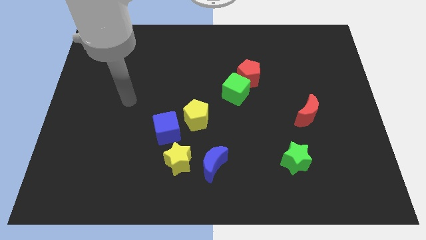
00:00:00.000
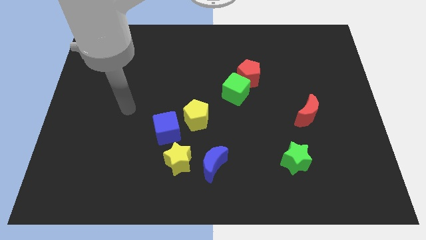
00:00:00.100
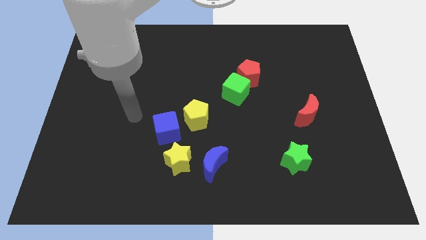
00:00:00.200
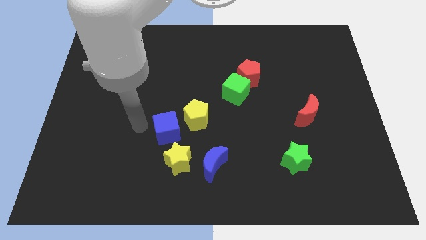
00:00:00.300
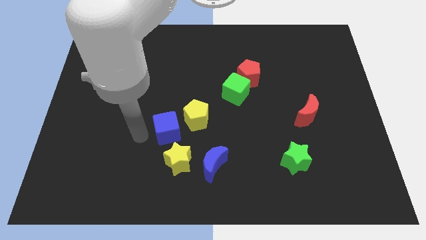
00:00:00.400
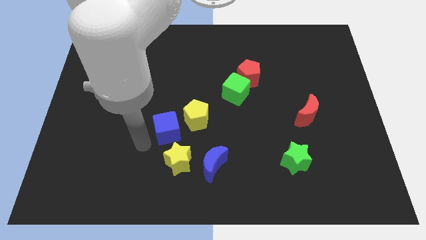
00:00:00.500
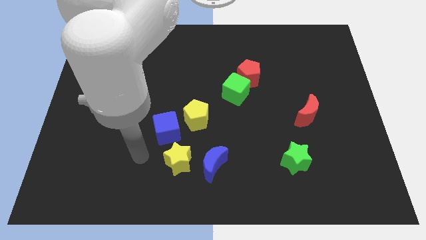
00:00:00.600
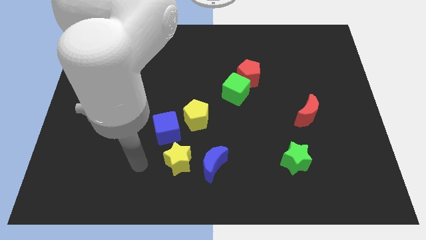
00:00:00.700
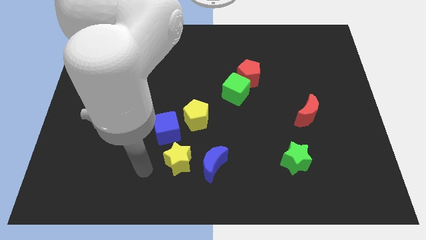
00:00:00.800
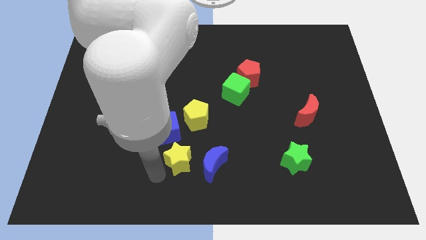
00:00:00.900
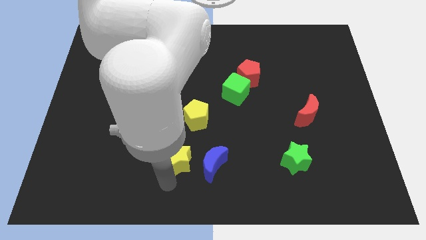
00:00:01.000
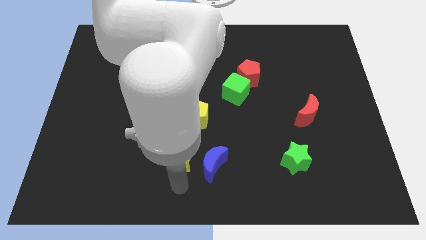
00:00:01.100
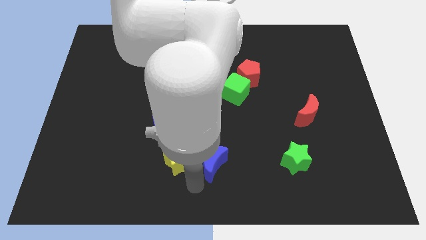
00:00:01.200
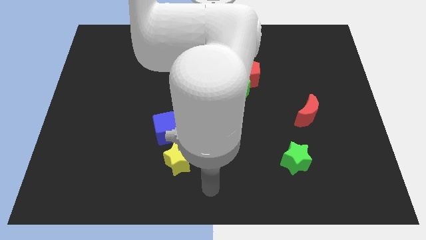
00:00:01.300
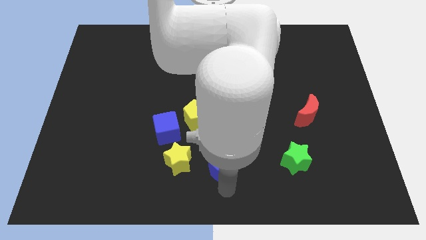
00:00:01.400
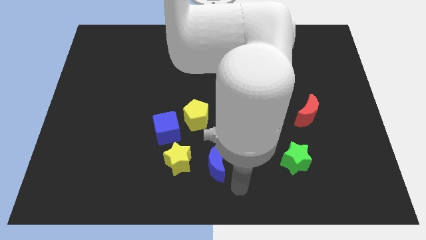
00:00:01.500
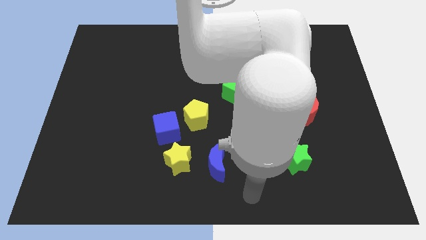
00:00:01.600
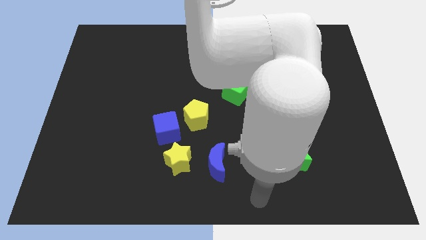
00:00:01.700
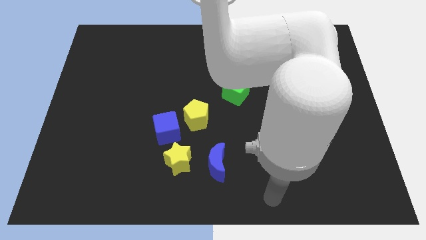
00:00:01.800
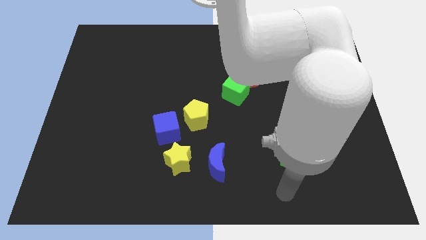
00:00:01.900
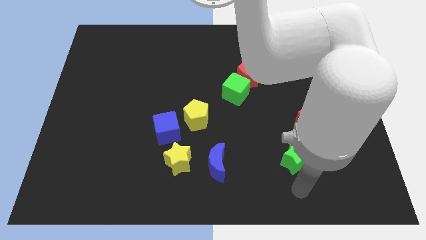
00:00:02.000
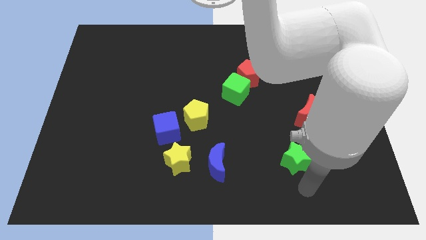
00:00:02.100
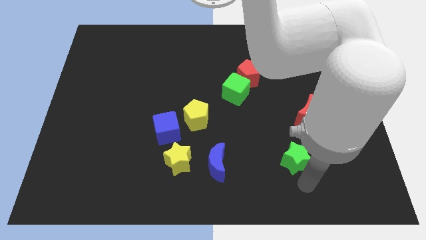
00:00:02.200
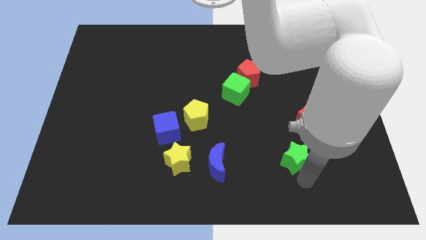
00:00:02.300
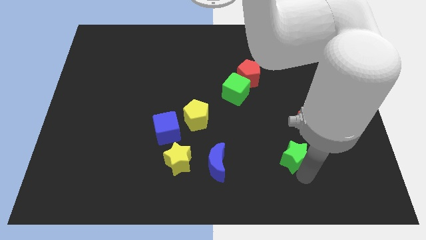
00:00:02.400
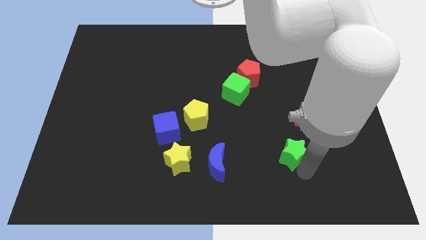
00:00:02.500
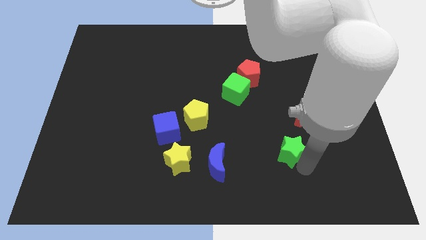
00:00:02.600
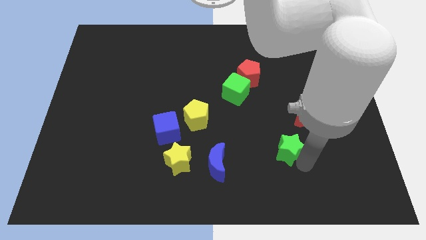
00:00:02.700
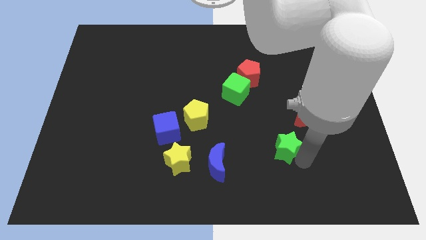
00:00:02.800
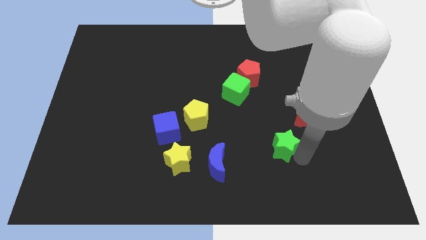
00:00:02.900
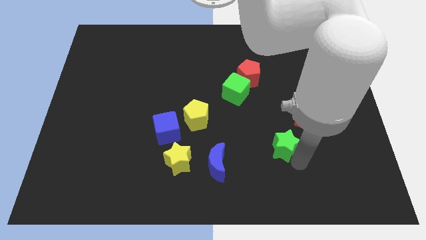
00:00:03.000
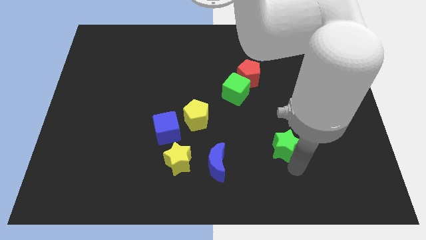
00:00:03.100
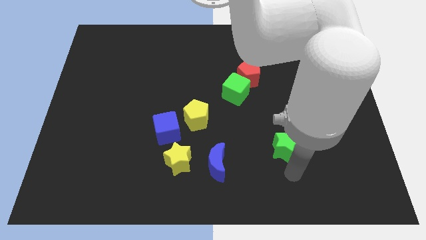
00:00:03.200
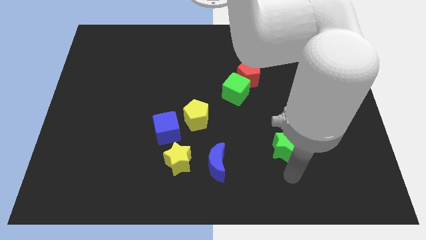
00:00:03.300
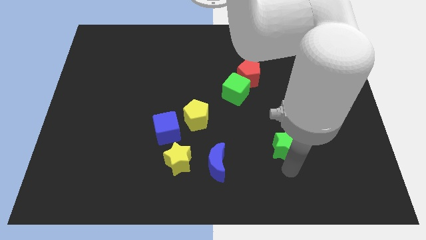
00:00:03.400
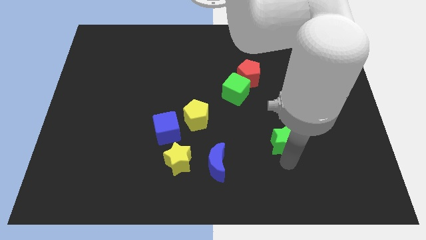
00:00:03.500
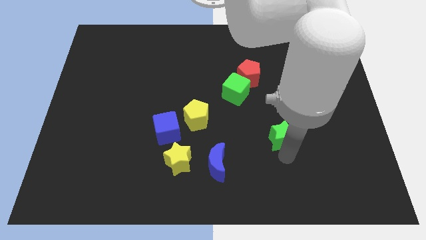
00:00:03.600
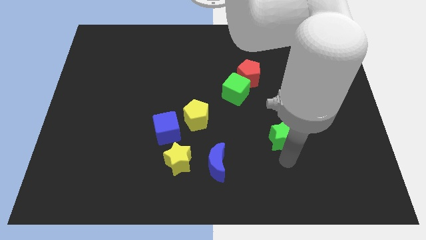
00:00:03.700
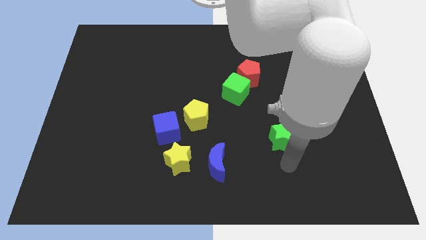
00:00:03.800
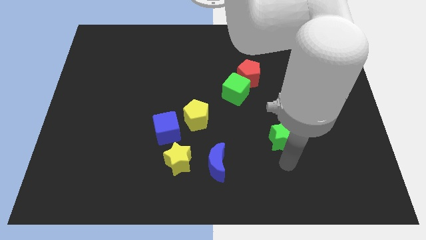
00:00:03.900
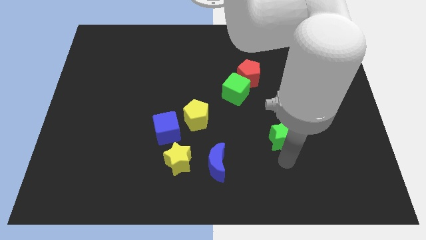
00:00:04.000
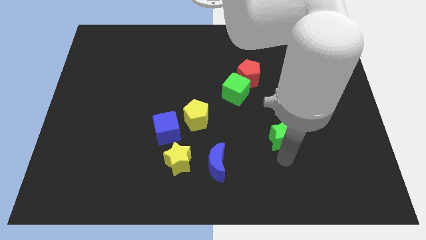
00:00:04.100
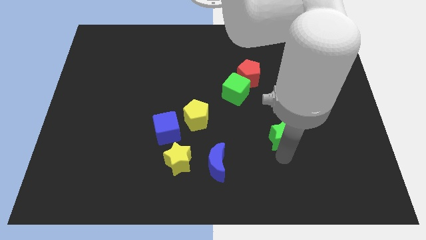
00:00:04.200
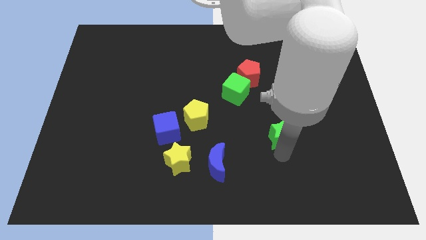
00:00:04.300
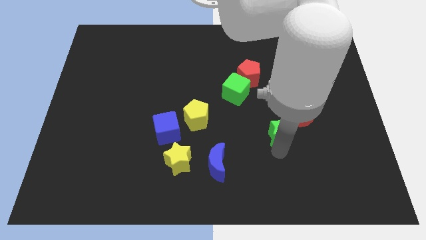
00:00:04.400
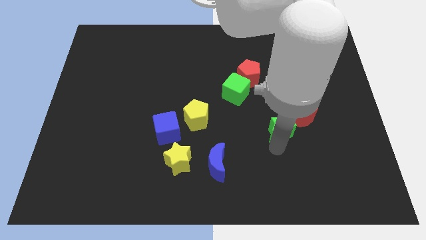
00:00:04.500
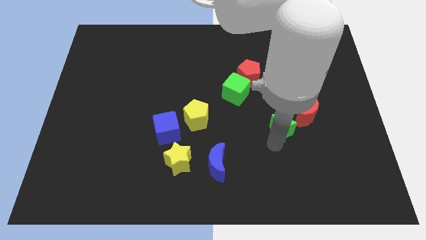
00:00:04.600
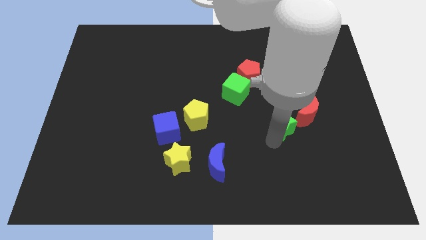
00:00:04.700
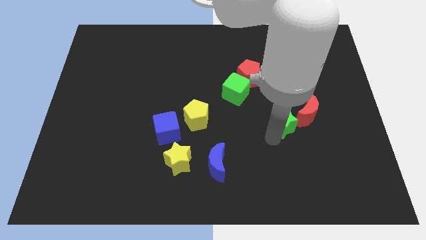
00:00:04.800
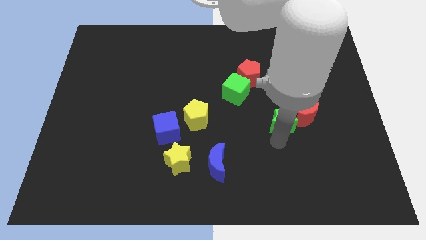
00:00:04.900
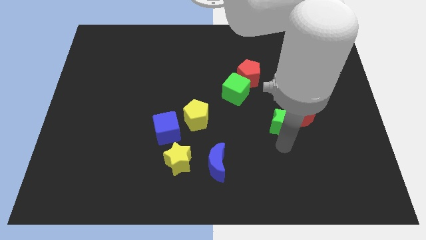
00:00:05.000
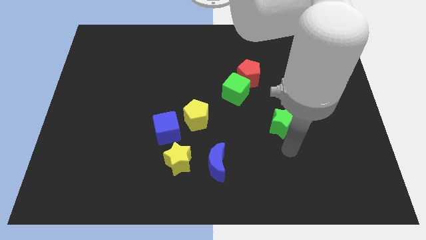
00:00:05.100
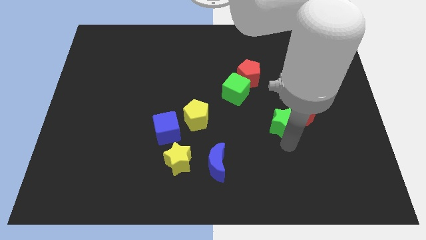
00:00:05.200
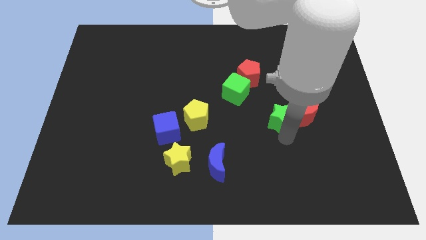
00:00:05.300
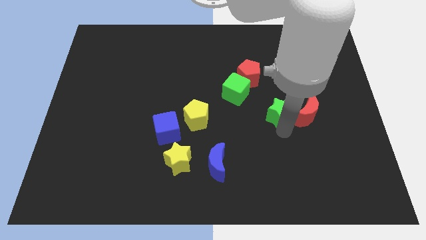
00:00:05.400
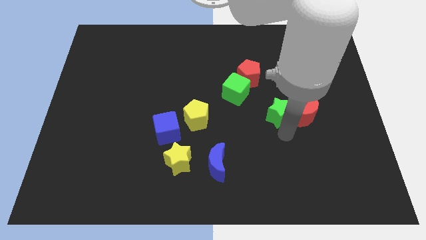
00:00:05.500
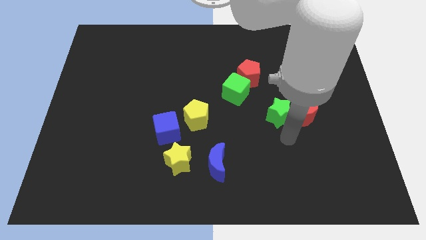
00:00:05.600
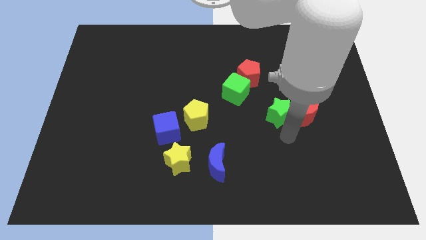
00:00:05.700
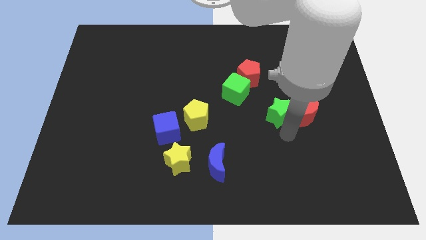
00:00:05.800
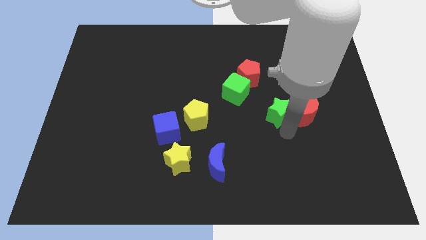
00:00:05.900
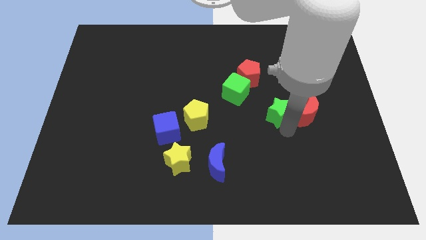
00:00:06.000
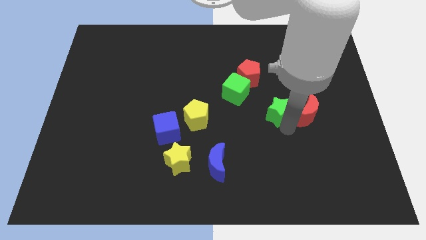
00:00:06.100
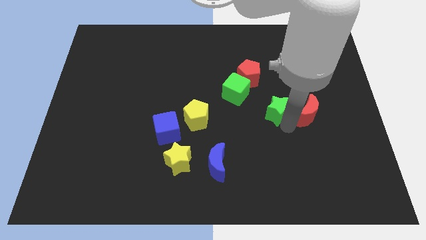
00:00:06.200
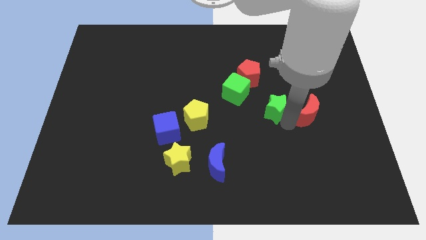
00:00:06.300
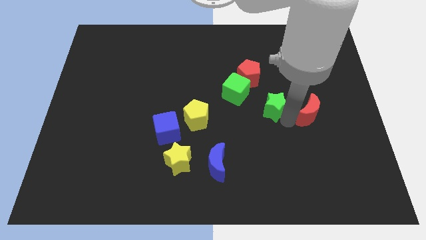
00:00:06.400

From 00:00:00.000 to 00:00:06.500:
push the green star to the bottom right side of the red pentagon

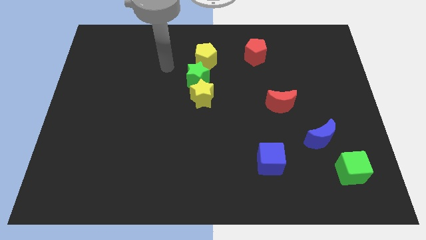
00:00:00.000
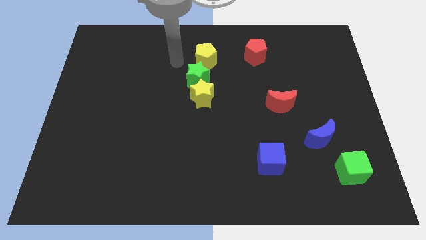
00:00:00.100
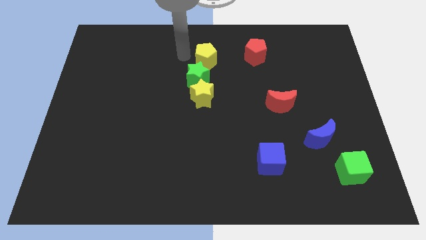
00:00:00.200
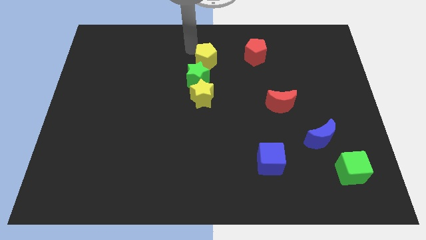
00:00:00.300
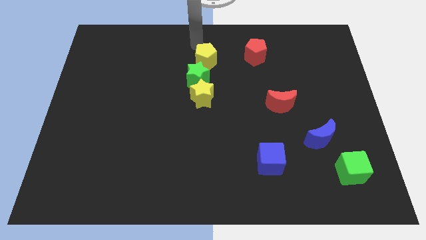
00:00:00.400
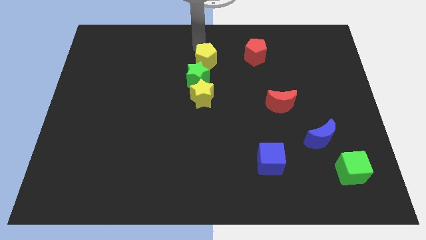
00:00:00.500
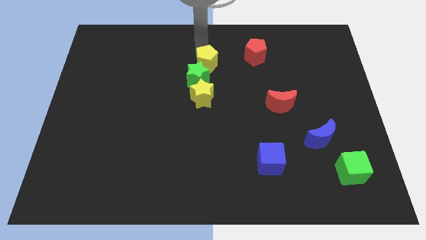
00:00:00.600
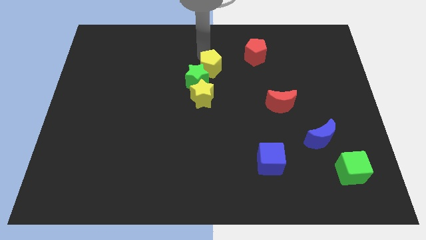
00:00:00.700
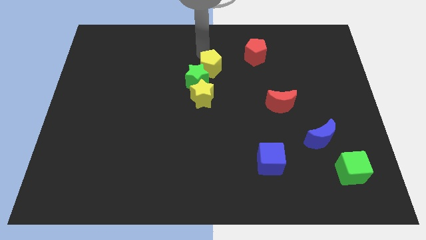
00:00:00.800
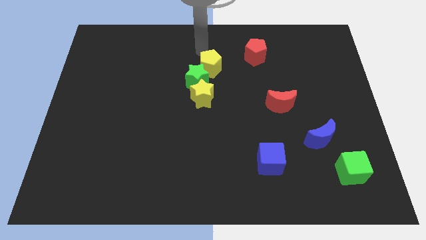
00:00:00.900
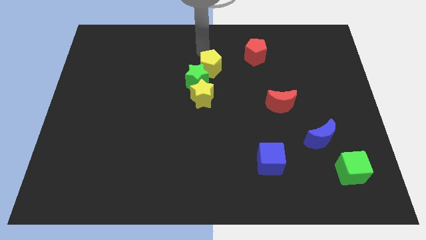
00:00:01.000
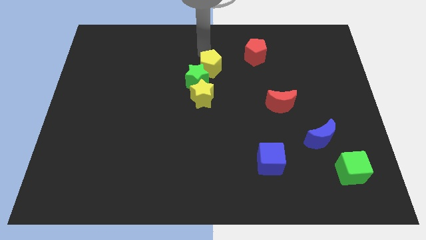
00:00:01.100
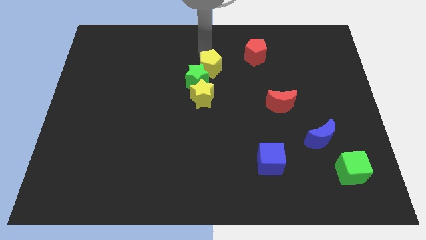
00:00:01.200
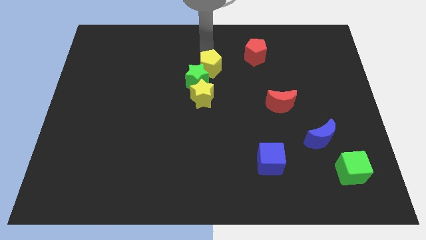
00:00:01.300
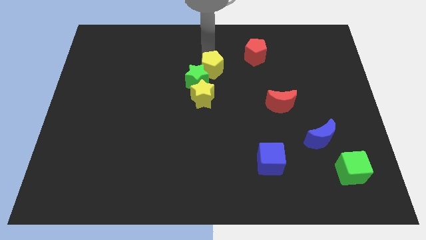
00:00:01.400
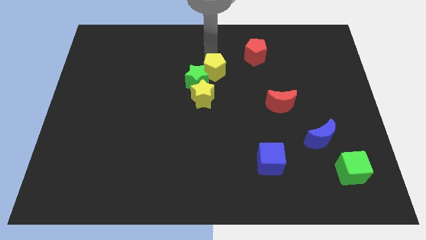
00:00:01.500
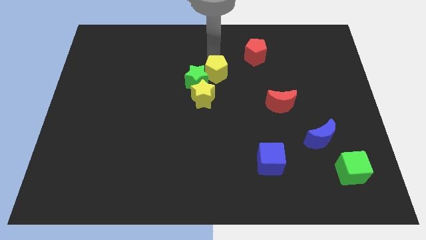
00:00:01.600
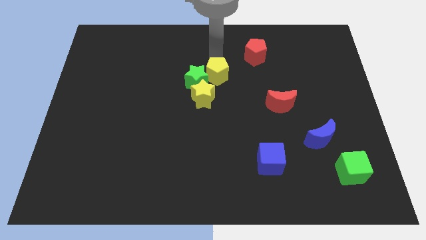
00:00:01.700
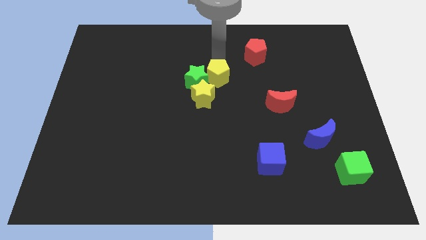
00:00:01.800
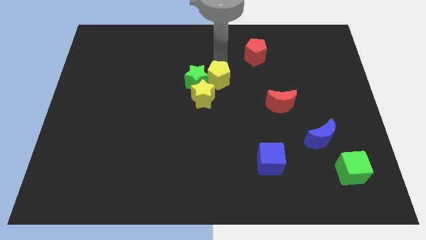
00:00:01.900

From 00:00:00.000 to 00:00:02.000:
put the yellow pentagon diagonally down and to the right of the green star
